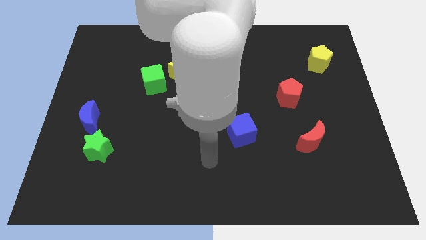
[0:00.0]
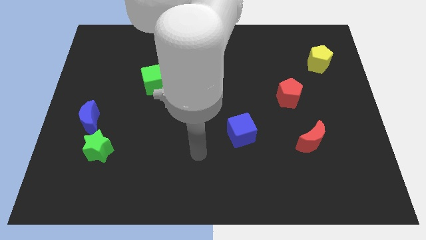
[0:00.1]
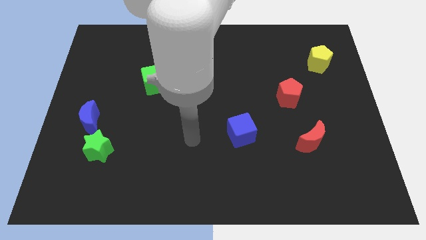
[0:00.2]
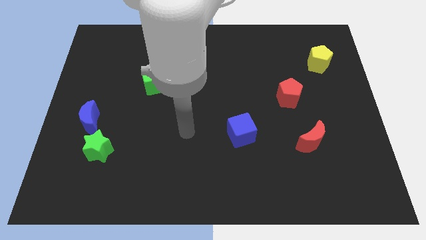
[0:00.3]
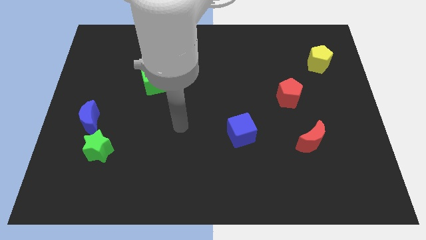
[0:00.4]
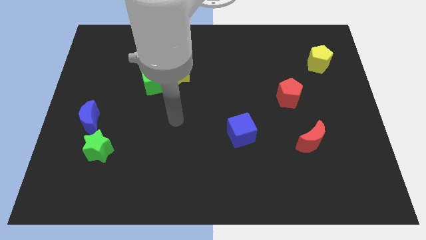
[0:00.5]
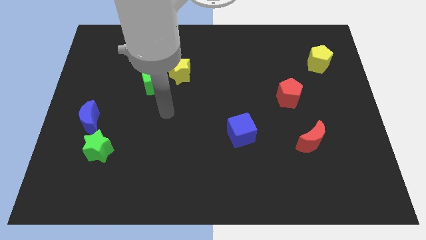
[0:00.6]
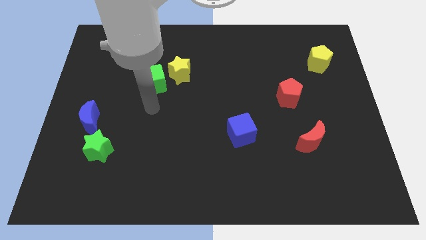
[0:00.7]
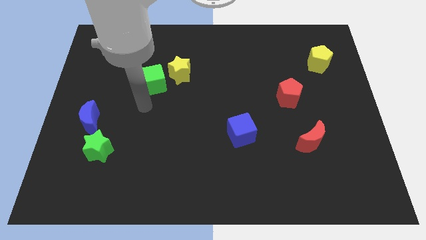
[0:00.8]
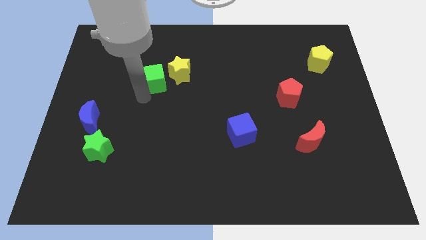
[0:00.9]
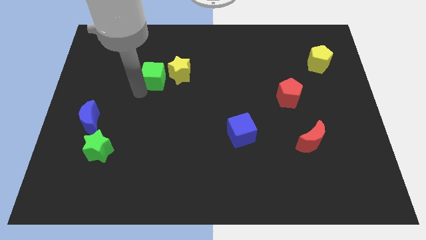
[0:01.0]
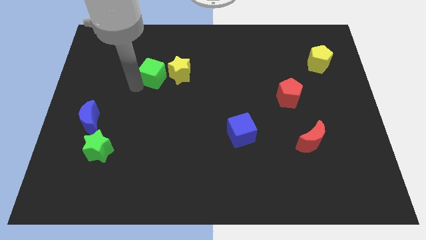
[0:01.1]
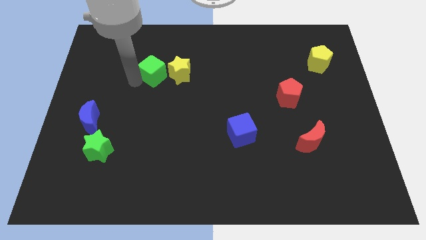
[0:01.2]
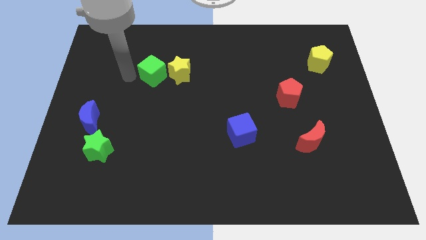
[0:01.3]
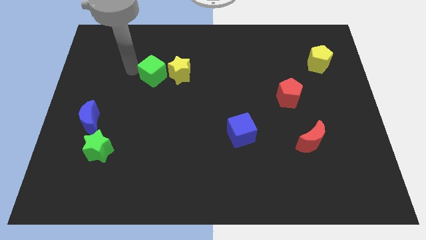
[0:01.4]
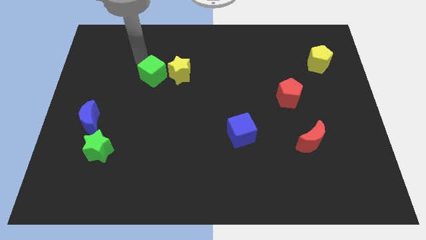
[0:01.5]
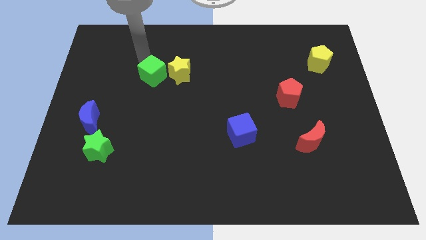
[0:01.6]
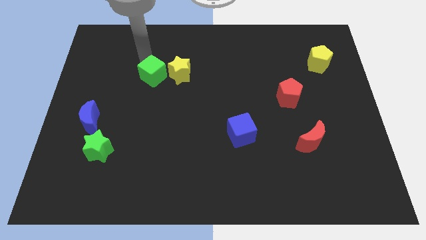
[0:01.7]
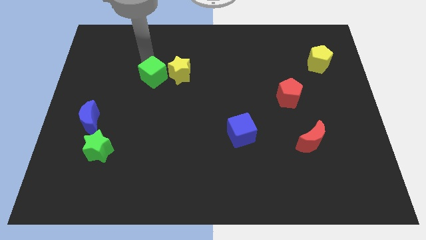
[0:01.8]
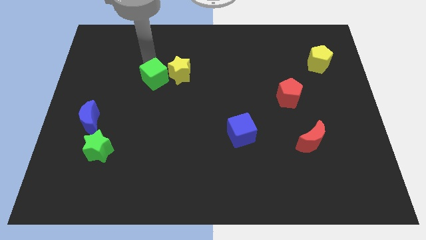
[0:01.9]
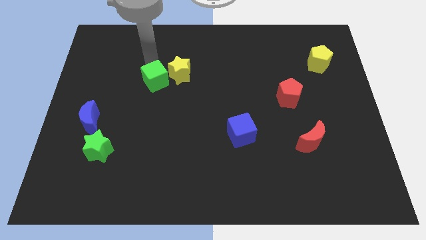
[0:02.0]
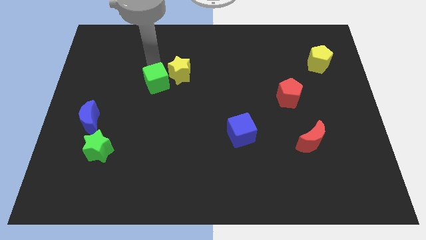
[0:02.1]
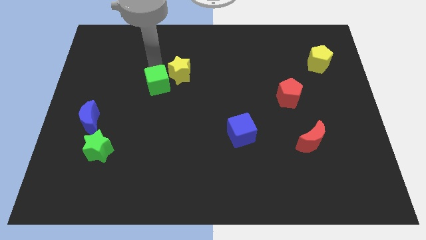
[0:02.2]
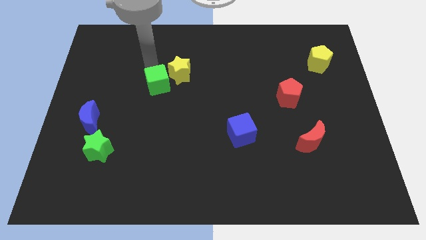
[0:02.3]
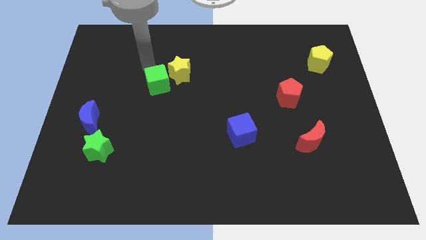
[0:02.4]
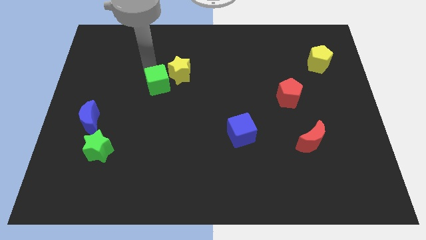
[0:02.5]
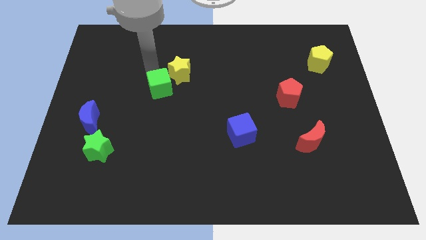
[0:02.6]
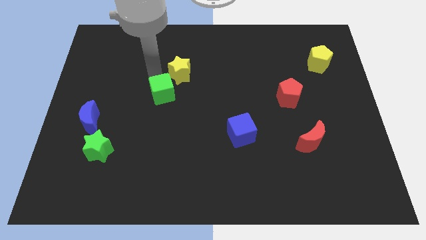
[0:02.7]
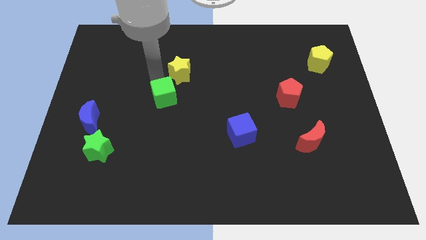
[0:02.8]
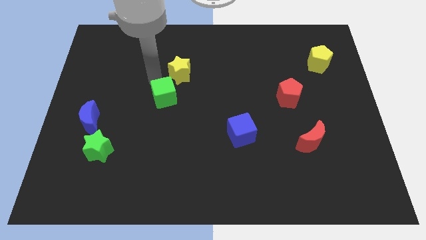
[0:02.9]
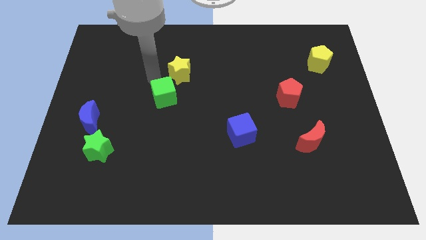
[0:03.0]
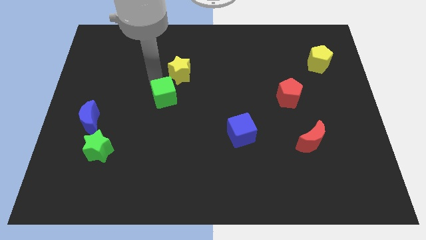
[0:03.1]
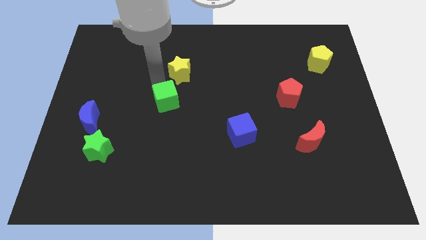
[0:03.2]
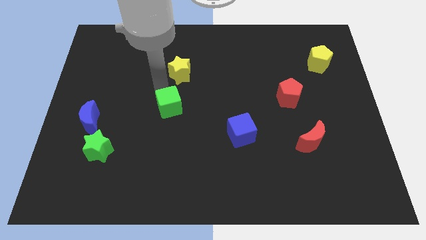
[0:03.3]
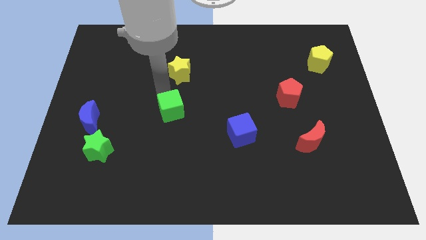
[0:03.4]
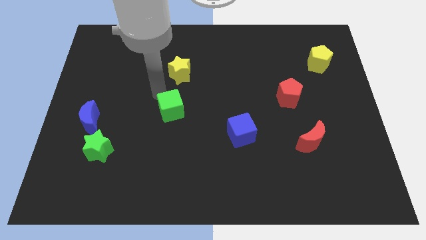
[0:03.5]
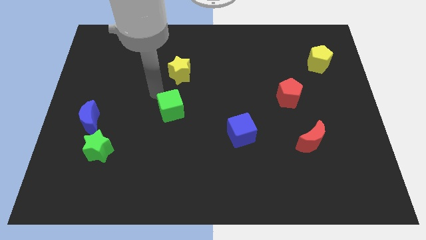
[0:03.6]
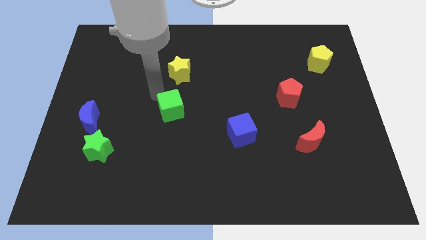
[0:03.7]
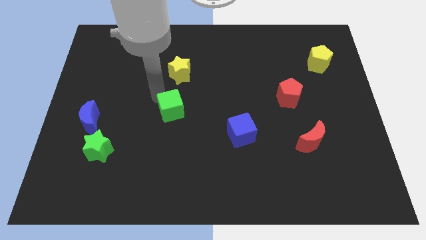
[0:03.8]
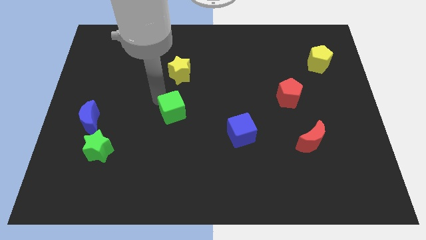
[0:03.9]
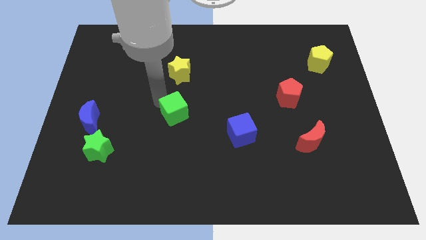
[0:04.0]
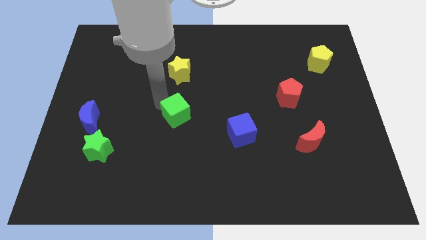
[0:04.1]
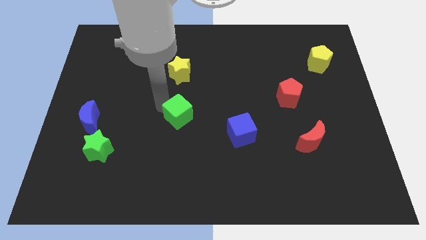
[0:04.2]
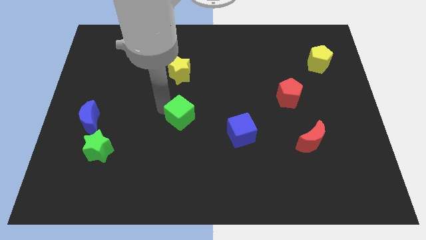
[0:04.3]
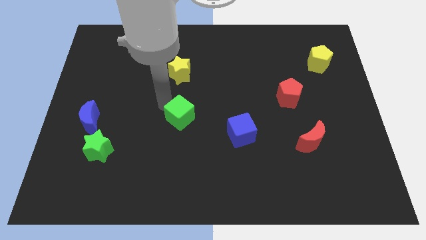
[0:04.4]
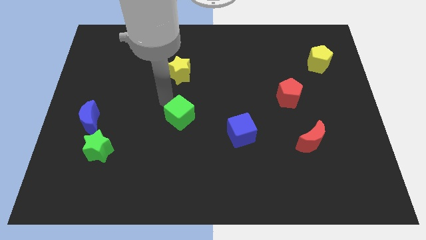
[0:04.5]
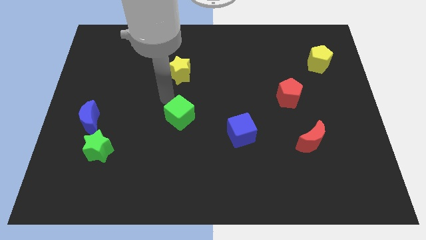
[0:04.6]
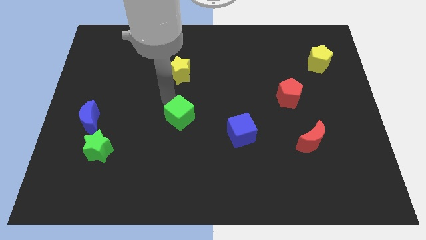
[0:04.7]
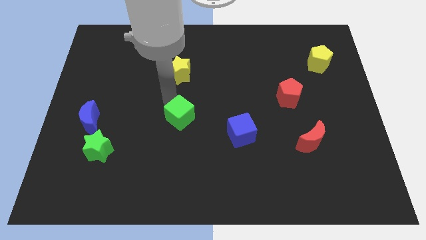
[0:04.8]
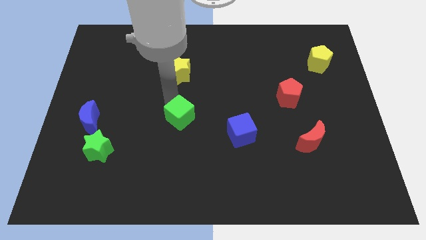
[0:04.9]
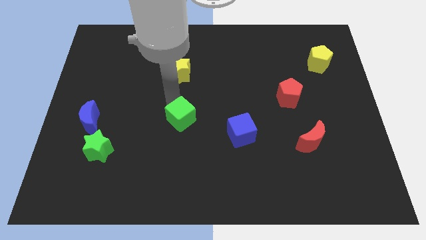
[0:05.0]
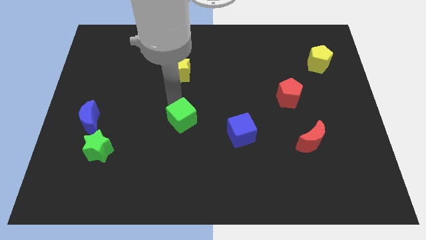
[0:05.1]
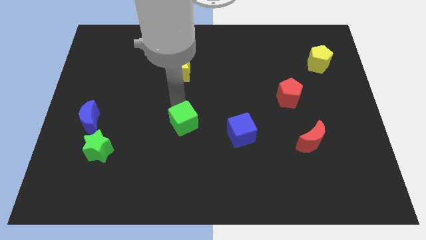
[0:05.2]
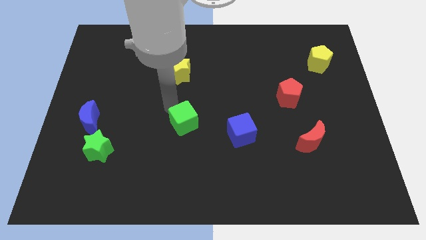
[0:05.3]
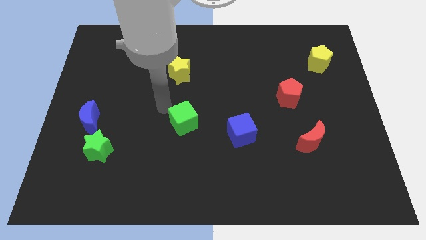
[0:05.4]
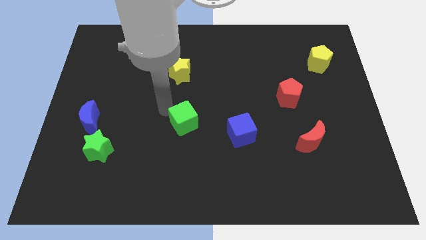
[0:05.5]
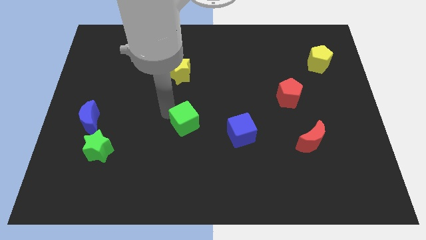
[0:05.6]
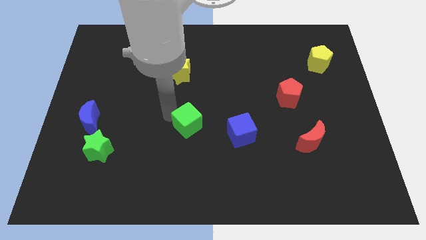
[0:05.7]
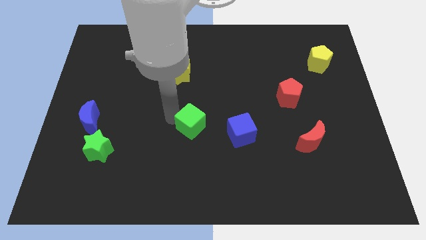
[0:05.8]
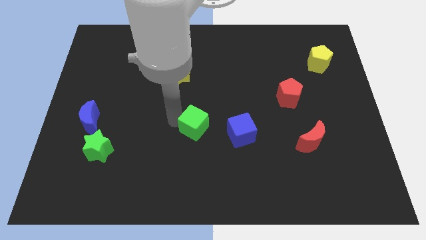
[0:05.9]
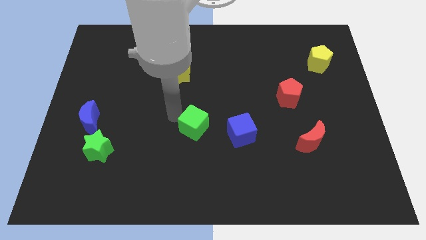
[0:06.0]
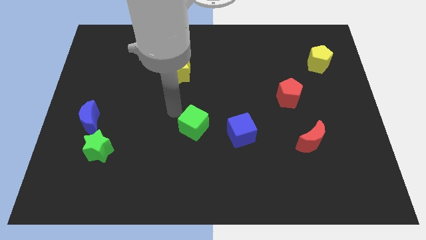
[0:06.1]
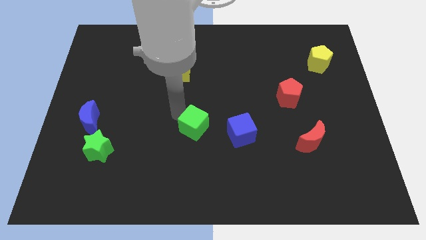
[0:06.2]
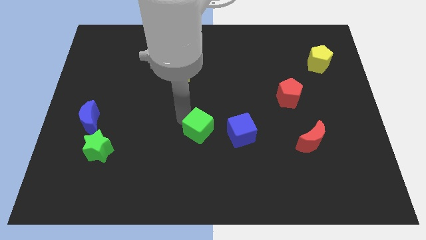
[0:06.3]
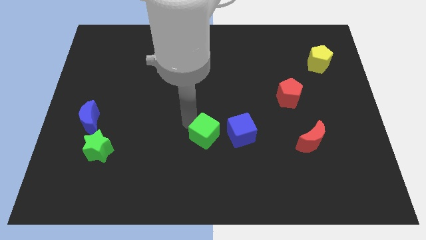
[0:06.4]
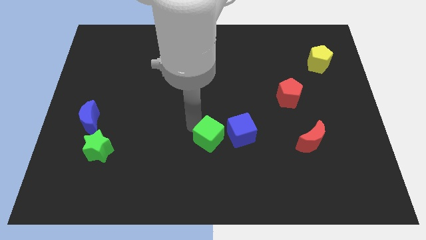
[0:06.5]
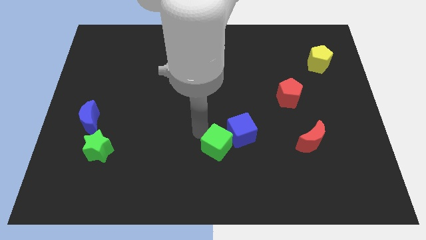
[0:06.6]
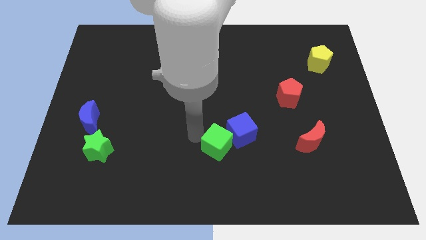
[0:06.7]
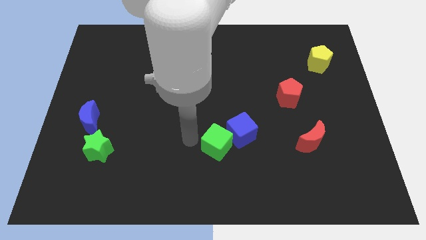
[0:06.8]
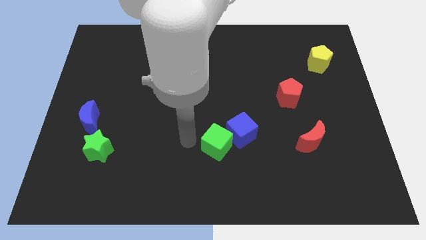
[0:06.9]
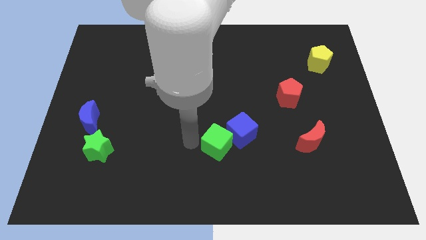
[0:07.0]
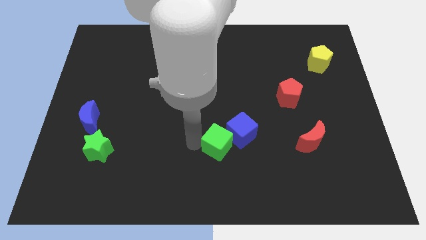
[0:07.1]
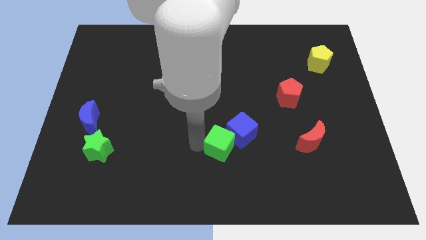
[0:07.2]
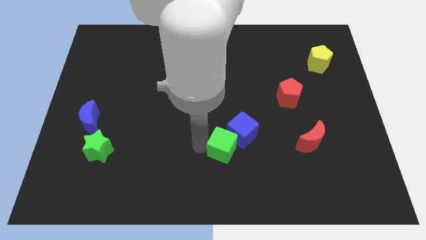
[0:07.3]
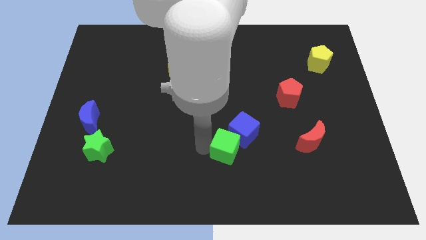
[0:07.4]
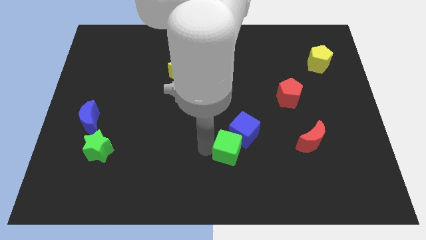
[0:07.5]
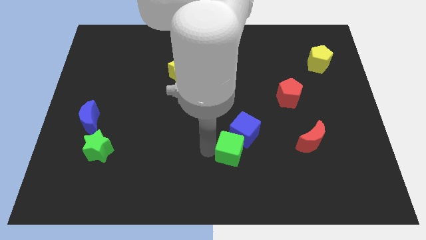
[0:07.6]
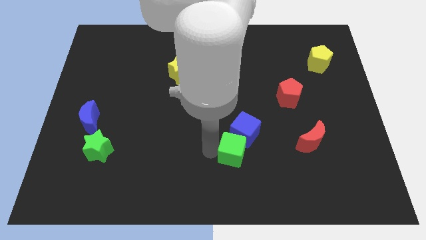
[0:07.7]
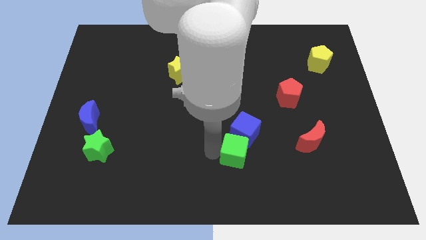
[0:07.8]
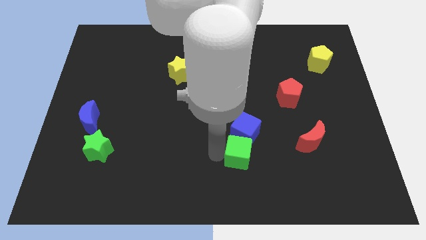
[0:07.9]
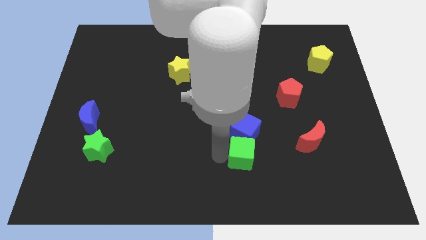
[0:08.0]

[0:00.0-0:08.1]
push the green cube to the bottom right side of the blue cube
